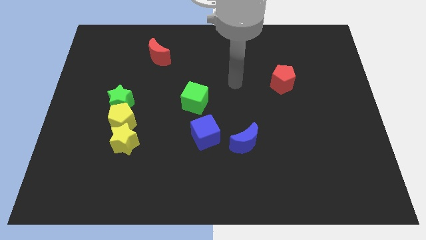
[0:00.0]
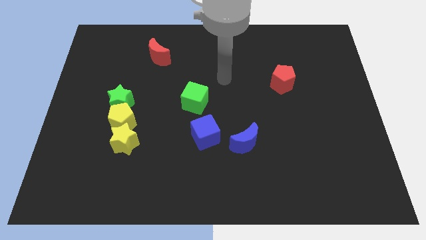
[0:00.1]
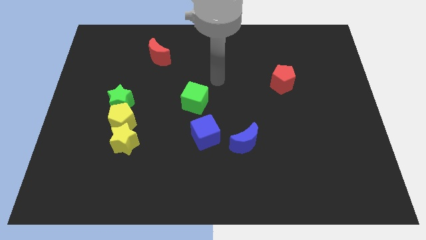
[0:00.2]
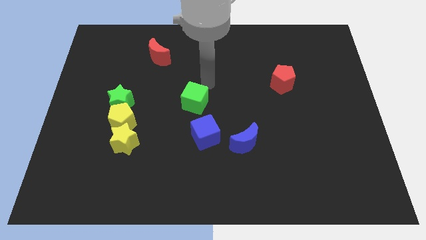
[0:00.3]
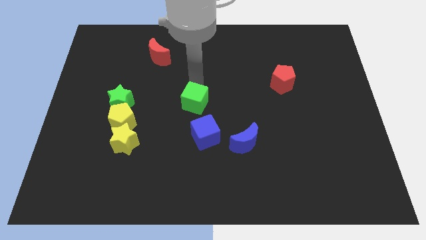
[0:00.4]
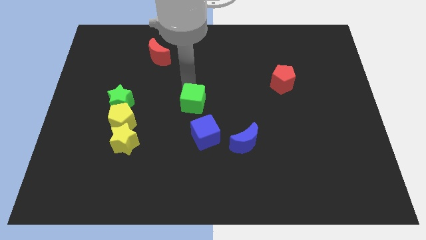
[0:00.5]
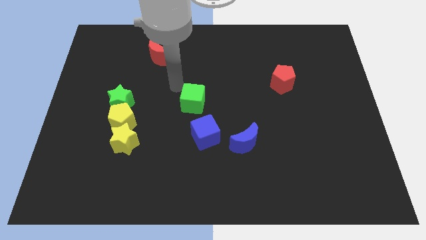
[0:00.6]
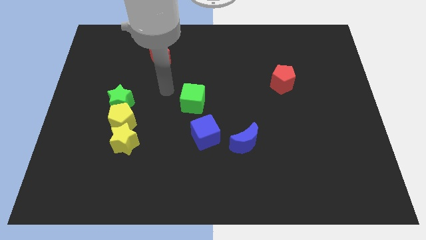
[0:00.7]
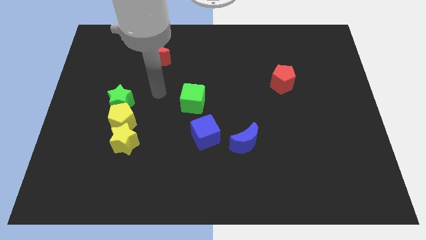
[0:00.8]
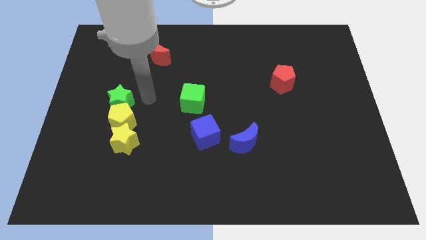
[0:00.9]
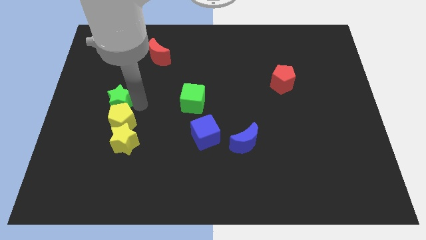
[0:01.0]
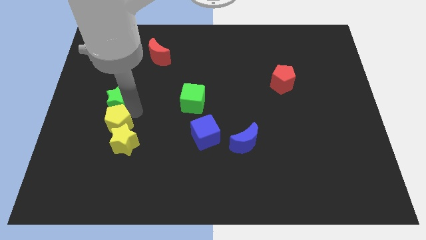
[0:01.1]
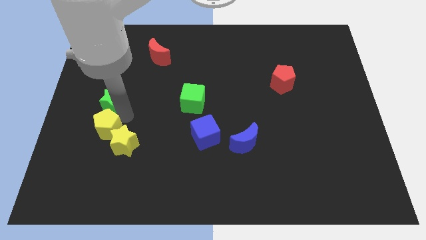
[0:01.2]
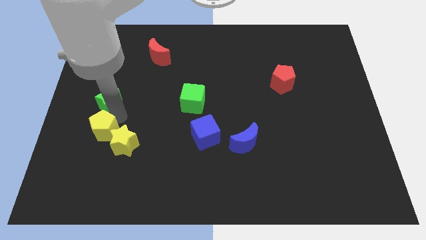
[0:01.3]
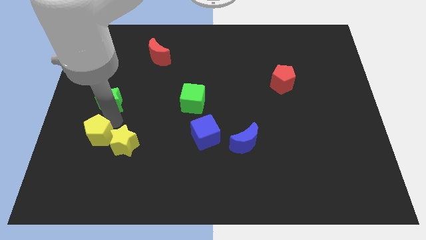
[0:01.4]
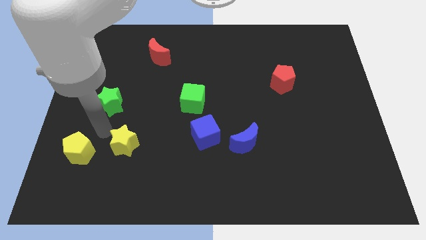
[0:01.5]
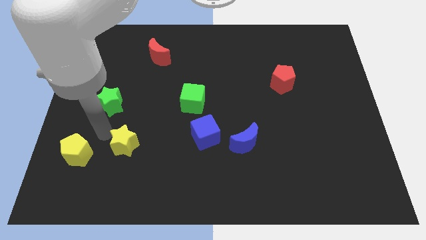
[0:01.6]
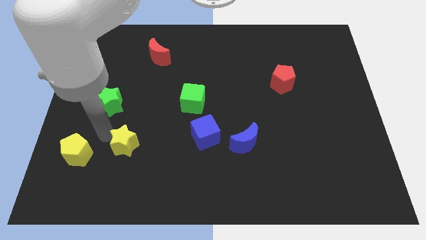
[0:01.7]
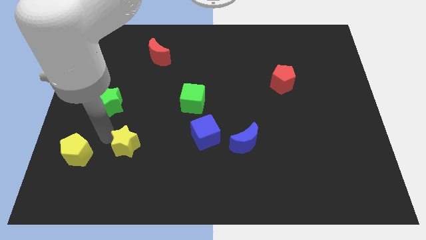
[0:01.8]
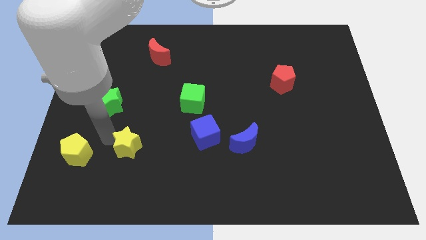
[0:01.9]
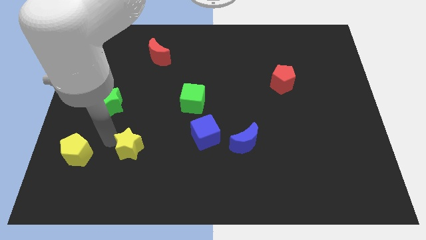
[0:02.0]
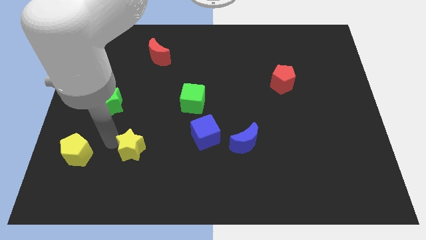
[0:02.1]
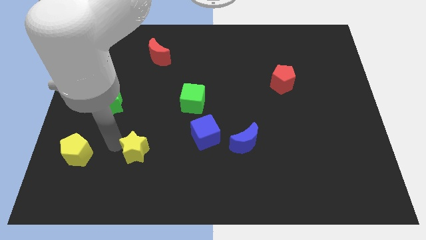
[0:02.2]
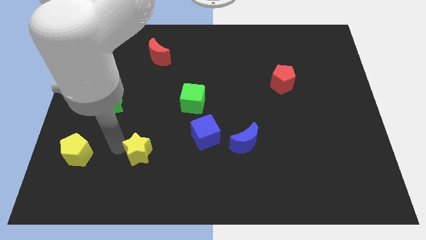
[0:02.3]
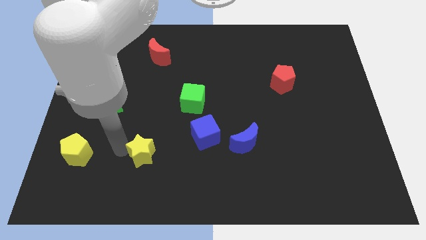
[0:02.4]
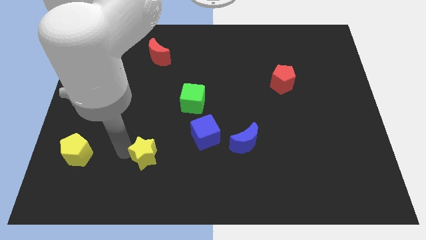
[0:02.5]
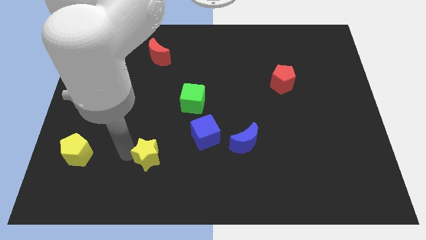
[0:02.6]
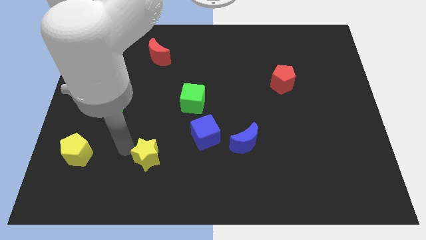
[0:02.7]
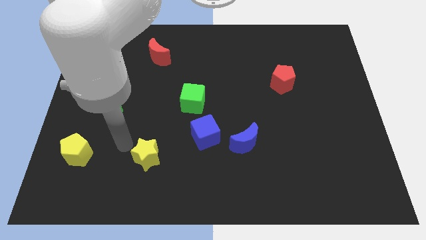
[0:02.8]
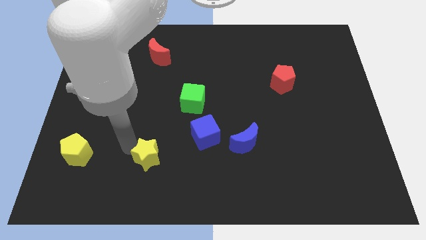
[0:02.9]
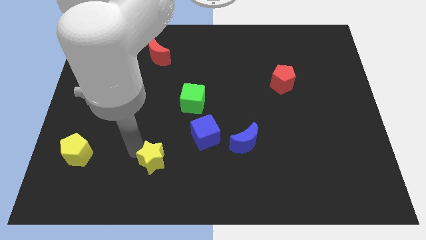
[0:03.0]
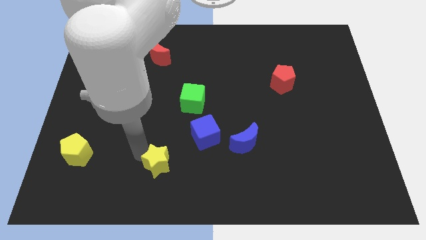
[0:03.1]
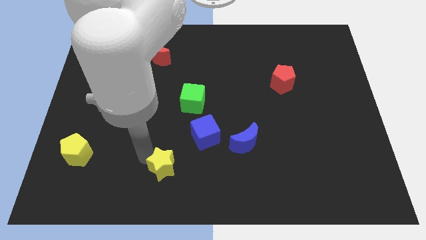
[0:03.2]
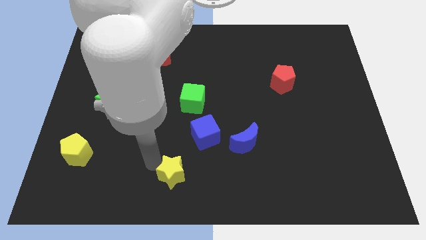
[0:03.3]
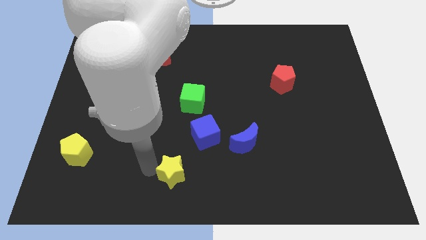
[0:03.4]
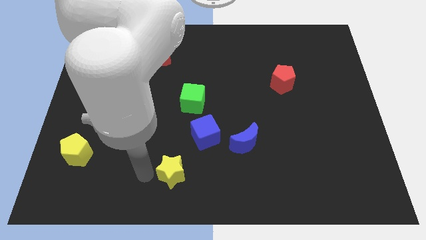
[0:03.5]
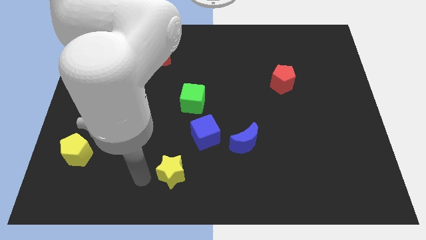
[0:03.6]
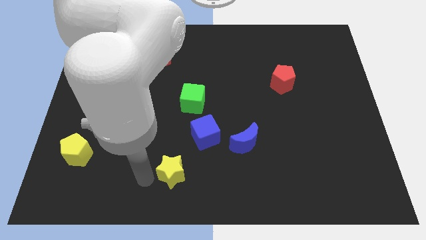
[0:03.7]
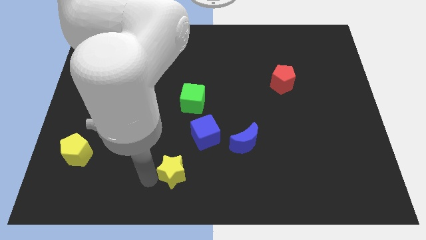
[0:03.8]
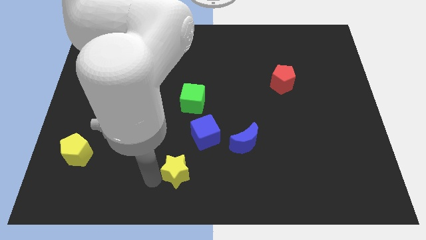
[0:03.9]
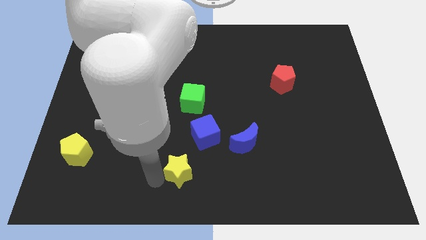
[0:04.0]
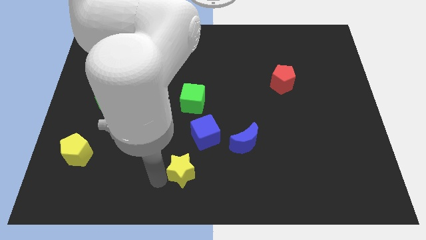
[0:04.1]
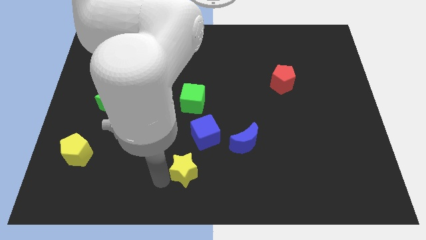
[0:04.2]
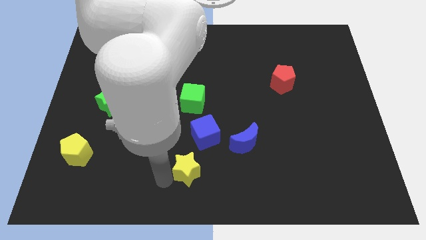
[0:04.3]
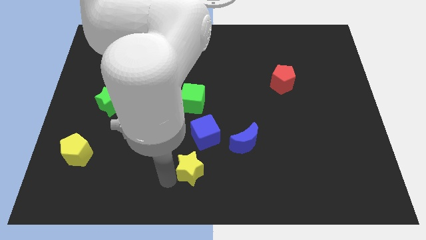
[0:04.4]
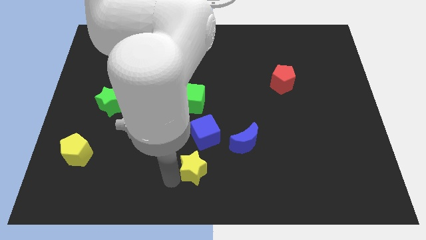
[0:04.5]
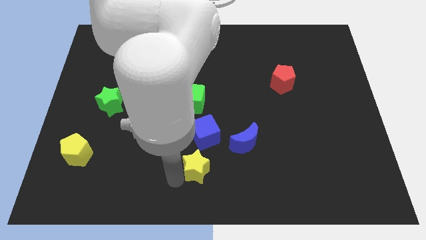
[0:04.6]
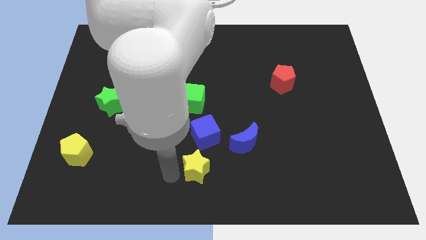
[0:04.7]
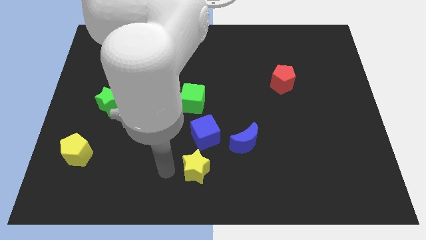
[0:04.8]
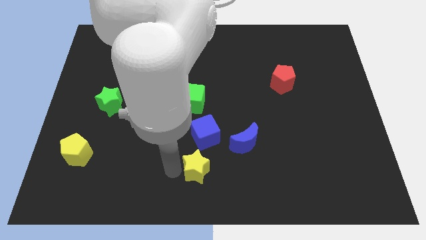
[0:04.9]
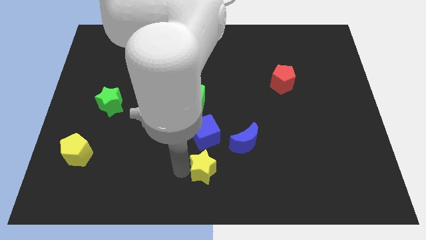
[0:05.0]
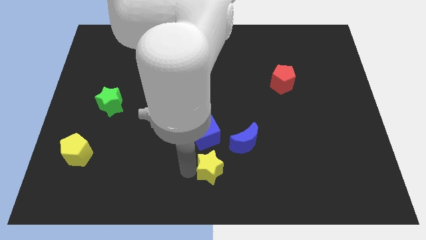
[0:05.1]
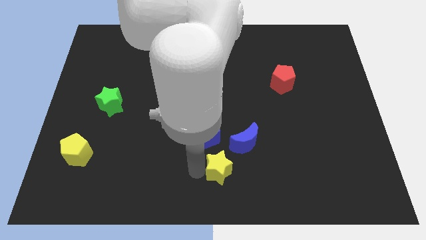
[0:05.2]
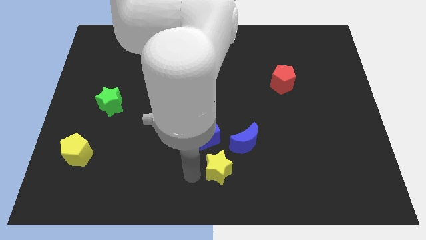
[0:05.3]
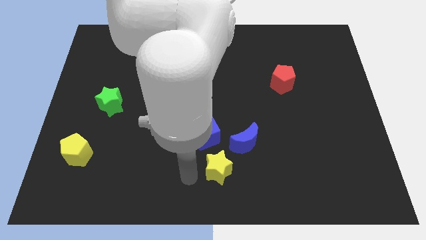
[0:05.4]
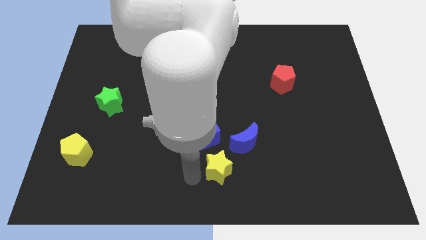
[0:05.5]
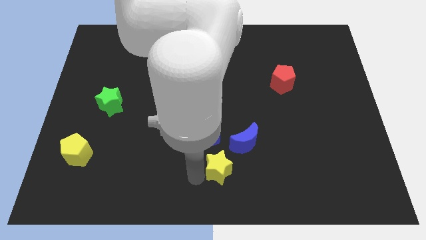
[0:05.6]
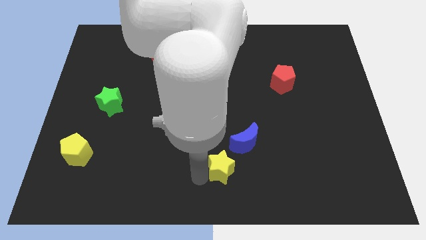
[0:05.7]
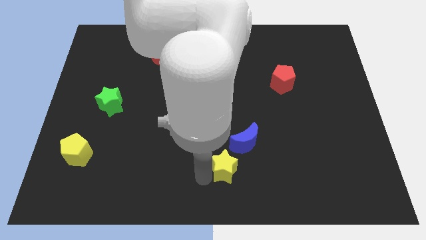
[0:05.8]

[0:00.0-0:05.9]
push the yellow star to the right

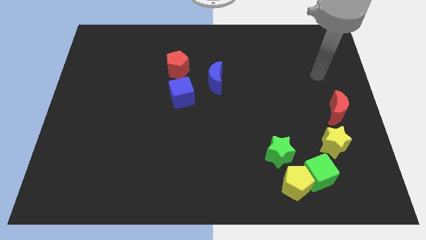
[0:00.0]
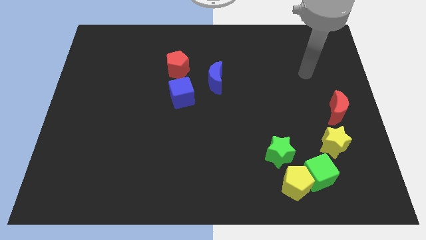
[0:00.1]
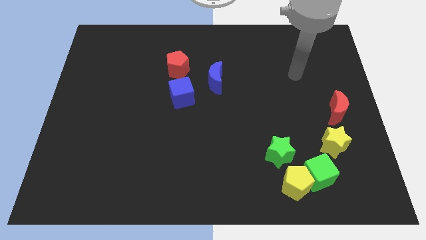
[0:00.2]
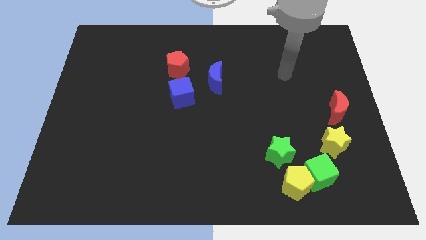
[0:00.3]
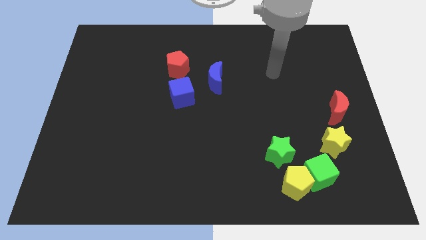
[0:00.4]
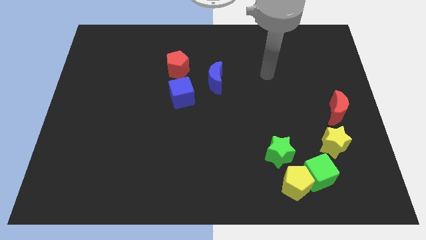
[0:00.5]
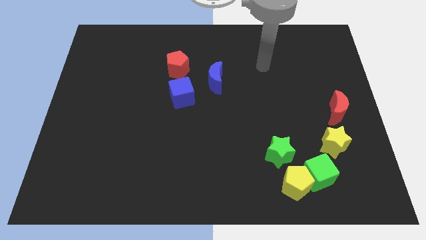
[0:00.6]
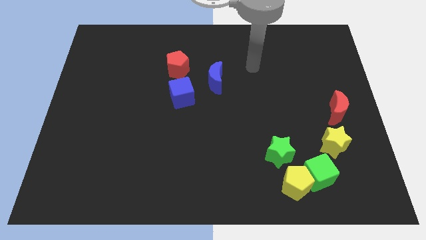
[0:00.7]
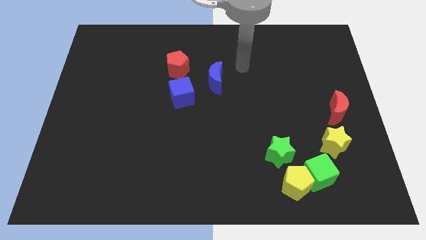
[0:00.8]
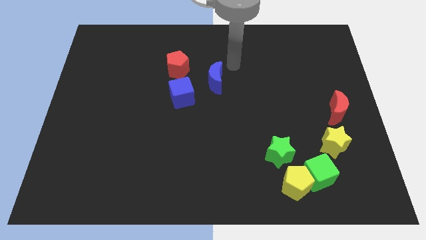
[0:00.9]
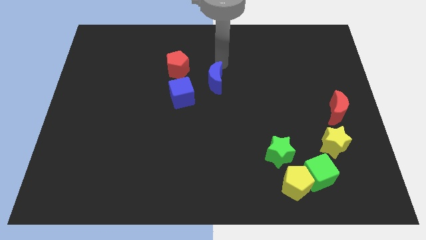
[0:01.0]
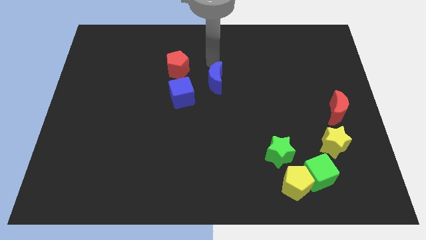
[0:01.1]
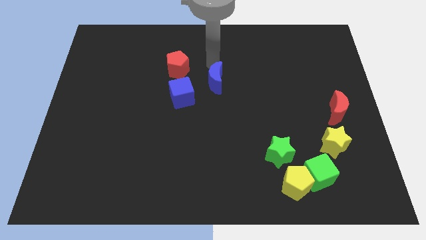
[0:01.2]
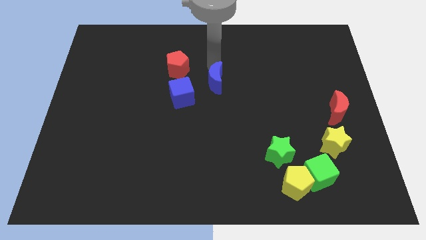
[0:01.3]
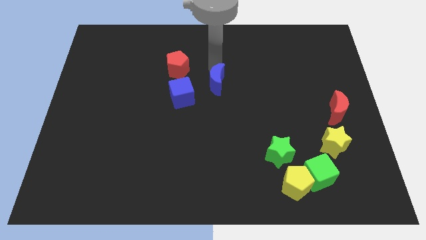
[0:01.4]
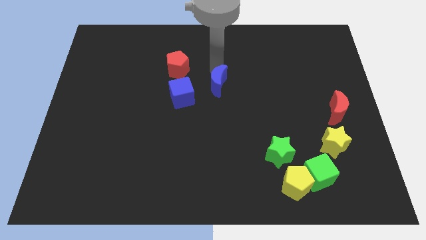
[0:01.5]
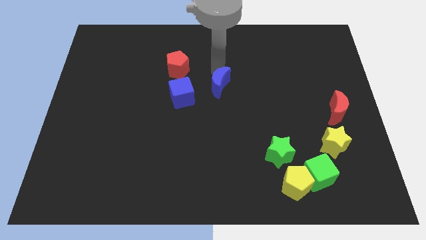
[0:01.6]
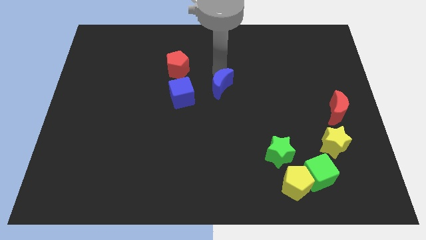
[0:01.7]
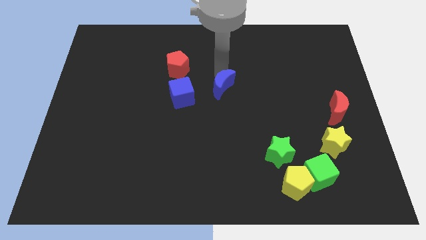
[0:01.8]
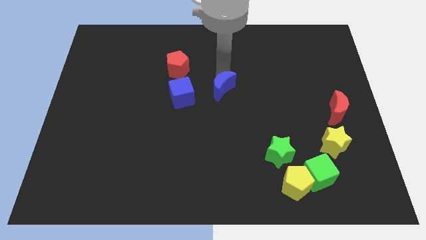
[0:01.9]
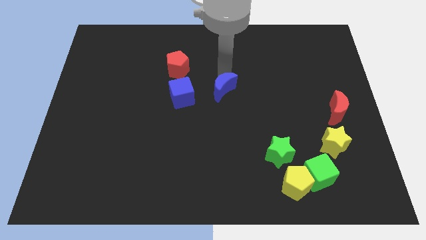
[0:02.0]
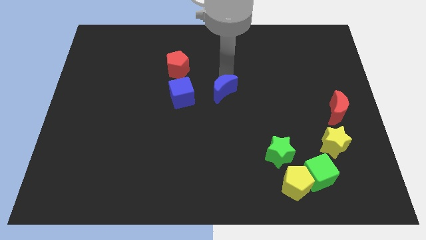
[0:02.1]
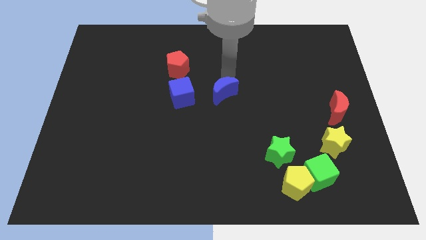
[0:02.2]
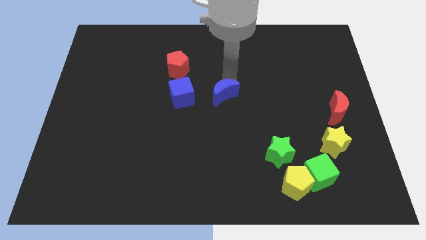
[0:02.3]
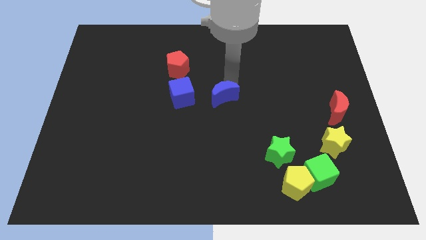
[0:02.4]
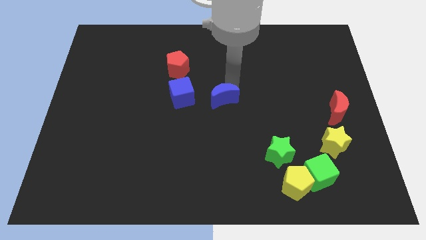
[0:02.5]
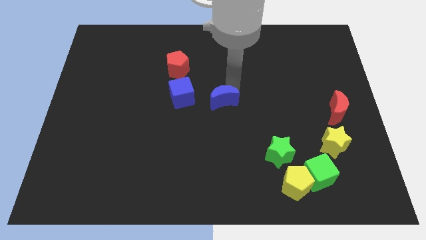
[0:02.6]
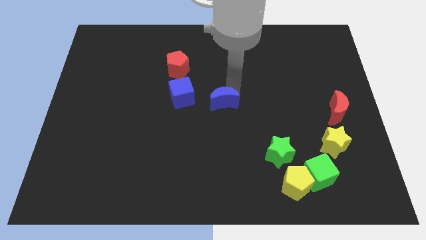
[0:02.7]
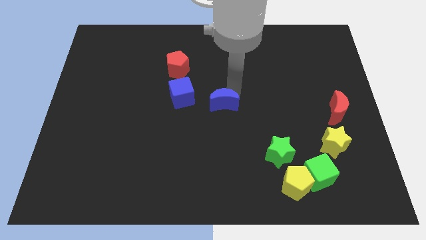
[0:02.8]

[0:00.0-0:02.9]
slightly push the blue moon down
